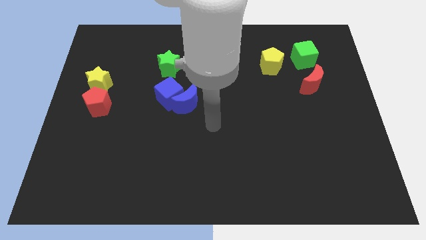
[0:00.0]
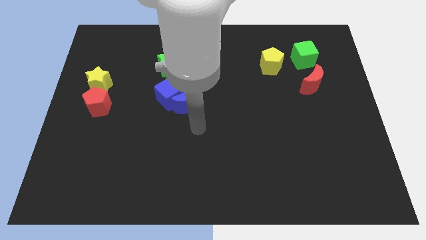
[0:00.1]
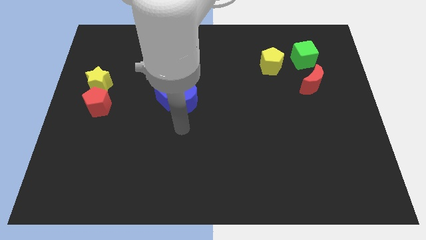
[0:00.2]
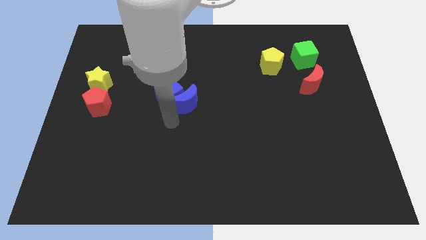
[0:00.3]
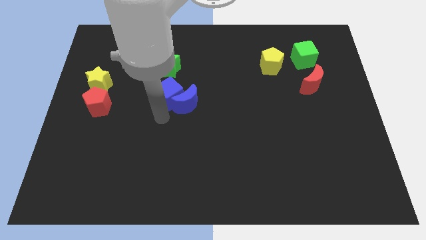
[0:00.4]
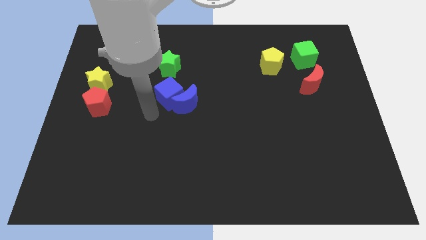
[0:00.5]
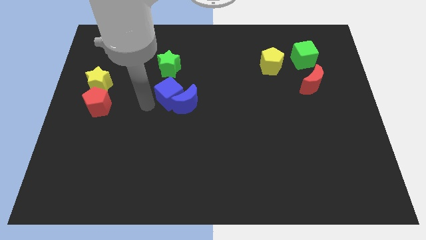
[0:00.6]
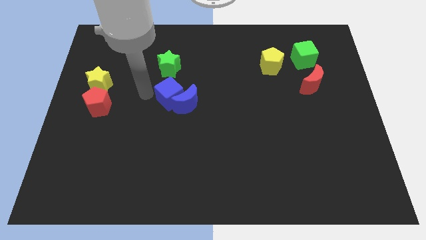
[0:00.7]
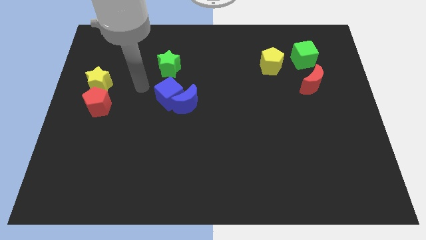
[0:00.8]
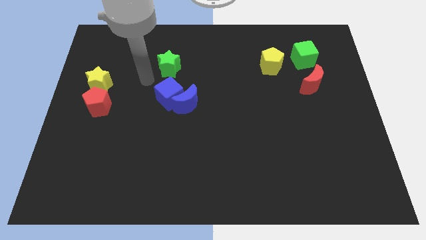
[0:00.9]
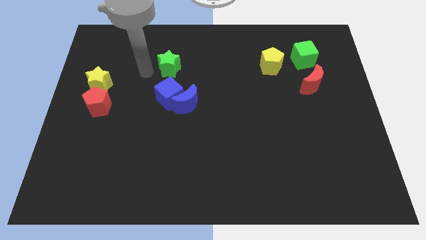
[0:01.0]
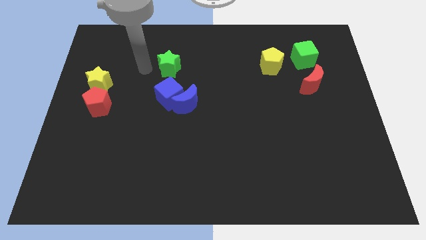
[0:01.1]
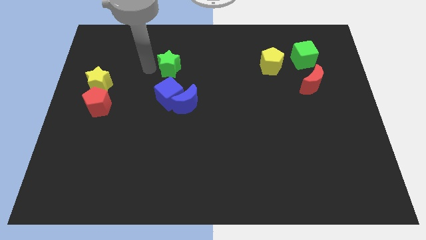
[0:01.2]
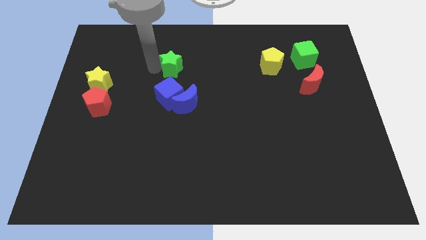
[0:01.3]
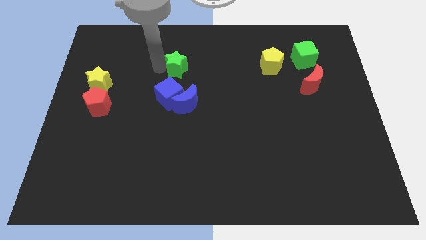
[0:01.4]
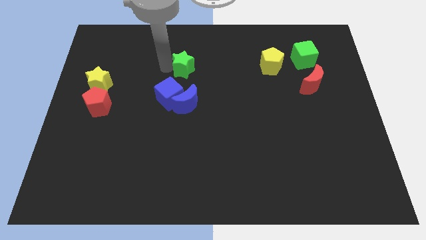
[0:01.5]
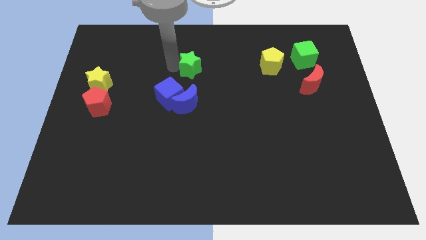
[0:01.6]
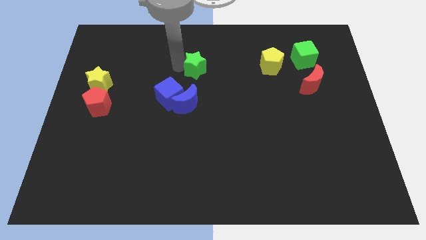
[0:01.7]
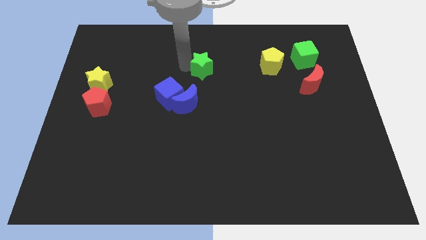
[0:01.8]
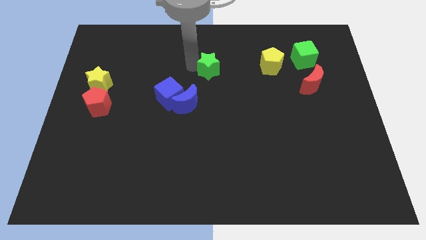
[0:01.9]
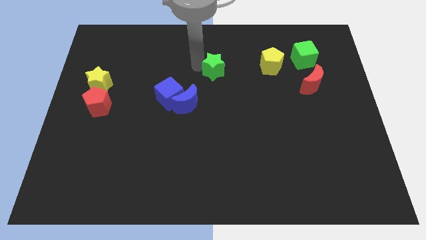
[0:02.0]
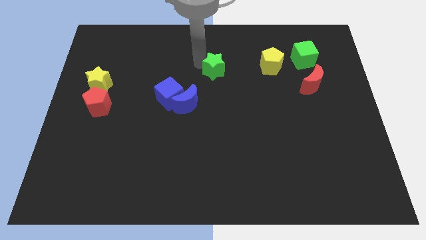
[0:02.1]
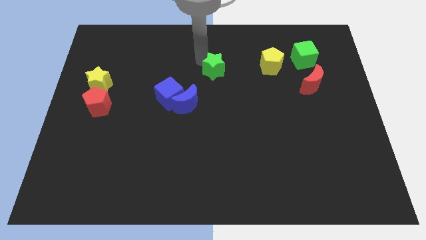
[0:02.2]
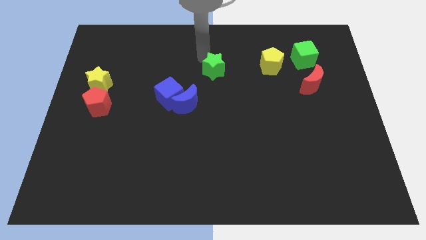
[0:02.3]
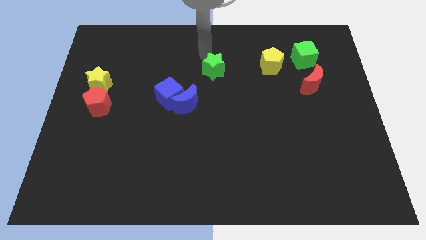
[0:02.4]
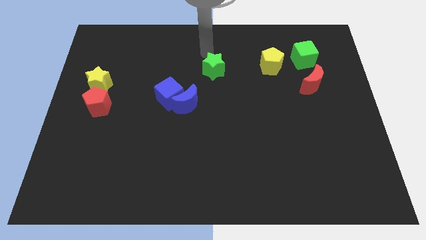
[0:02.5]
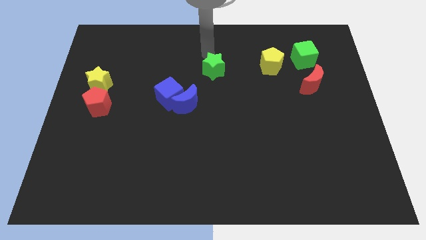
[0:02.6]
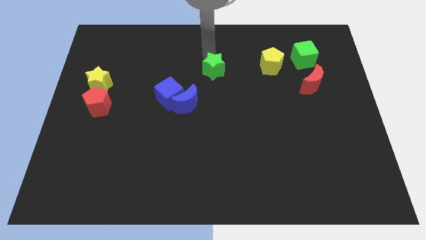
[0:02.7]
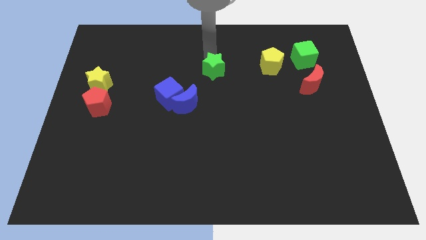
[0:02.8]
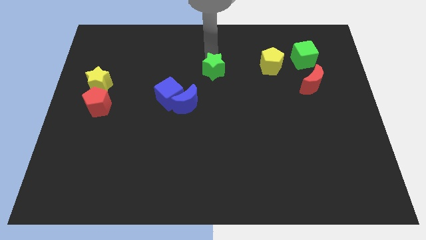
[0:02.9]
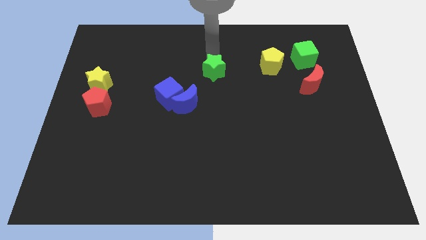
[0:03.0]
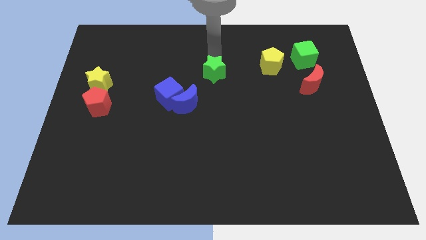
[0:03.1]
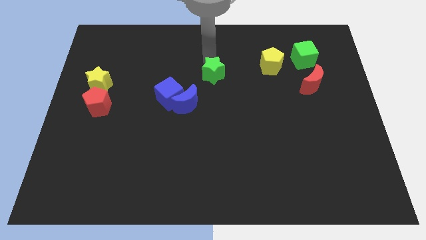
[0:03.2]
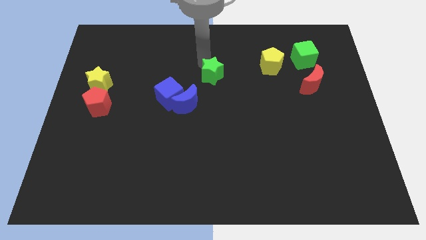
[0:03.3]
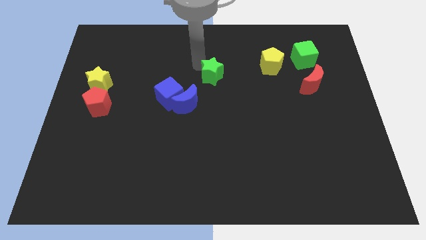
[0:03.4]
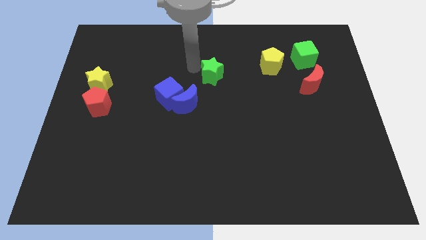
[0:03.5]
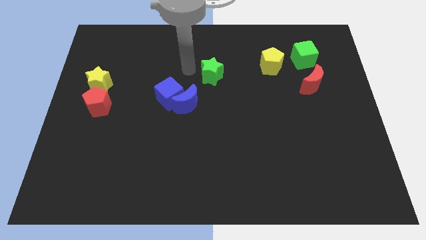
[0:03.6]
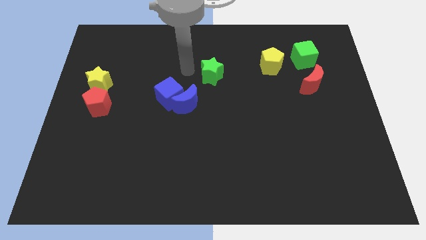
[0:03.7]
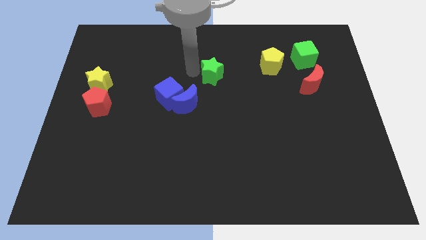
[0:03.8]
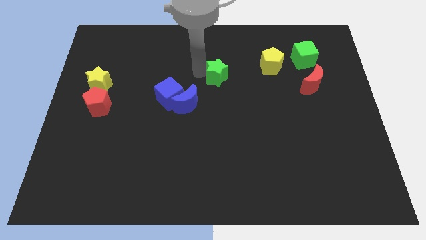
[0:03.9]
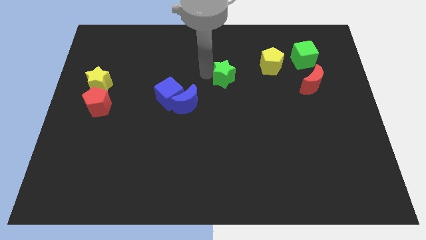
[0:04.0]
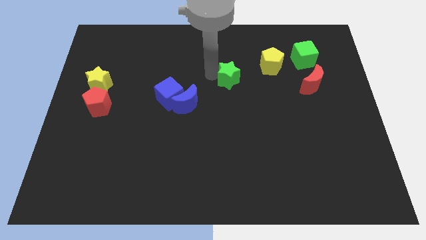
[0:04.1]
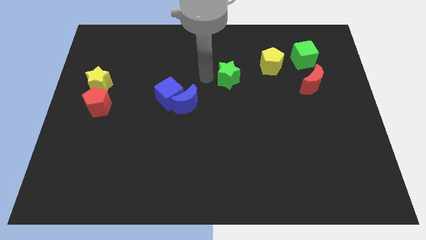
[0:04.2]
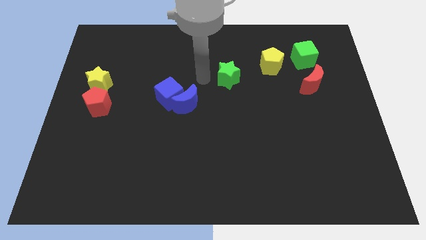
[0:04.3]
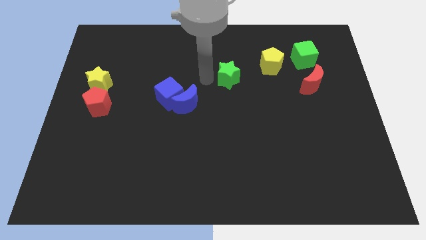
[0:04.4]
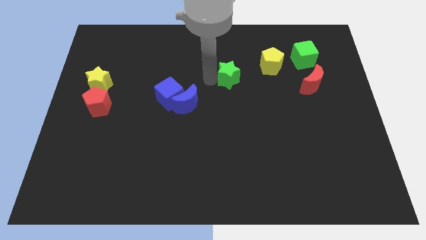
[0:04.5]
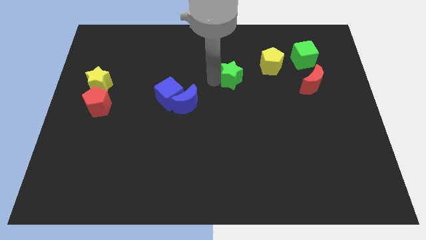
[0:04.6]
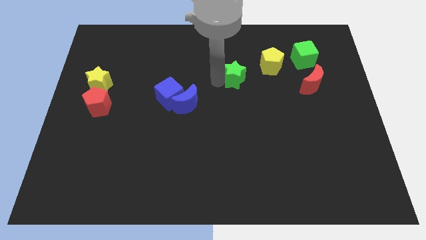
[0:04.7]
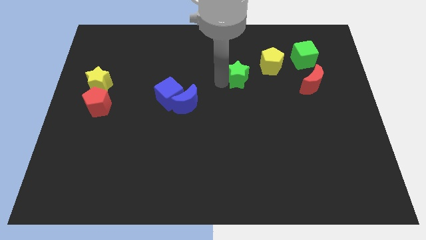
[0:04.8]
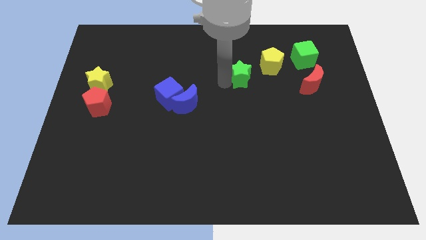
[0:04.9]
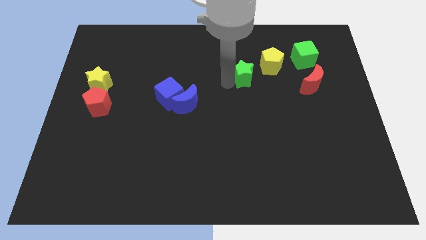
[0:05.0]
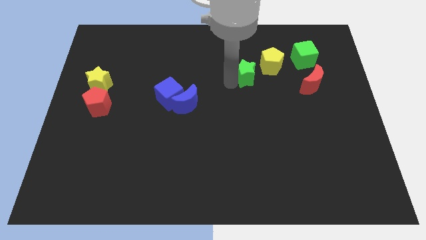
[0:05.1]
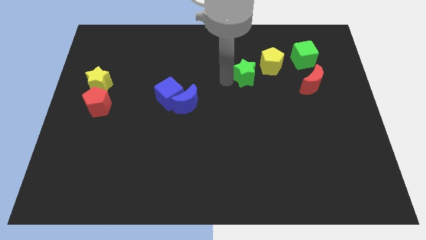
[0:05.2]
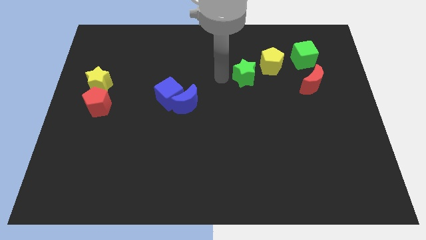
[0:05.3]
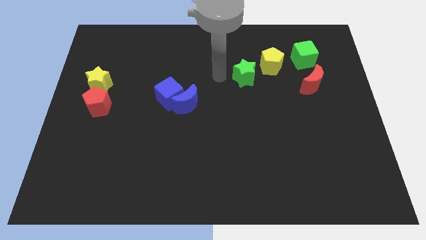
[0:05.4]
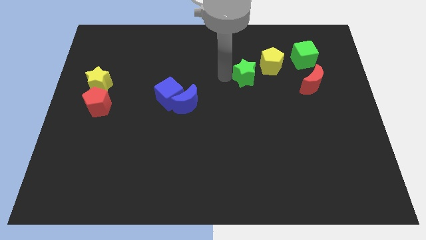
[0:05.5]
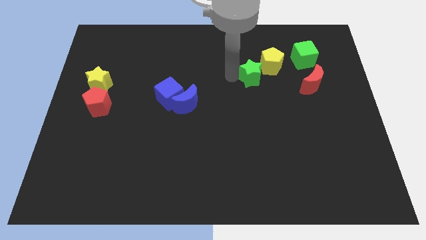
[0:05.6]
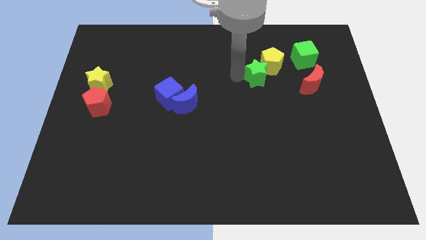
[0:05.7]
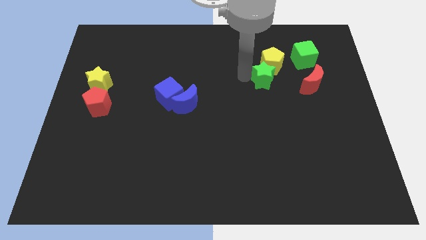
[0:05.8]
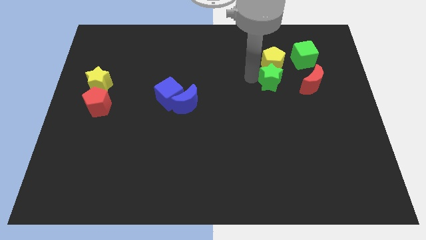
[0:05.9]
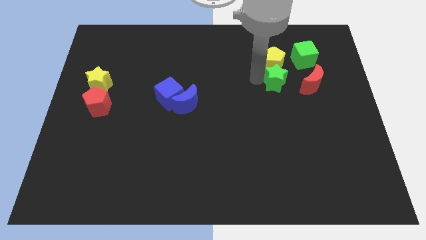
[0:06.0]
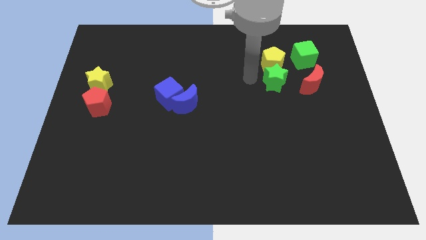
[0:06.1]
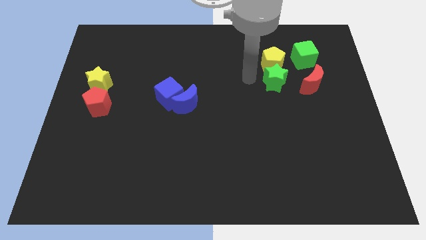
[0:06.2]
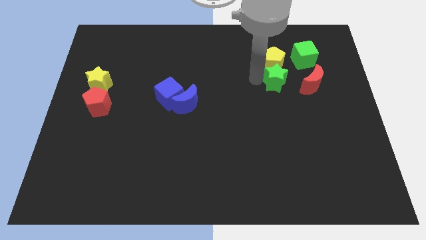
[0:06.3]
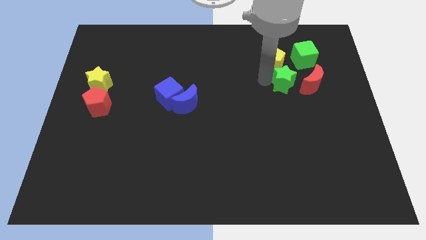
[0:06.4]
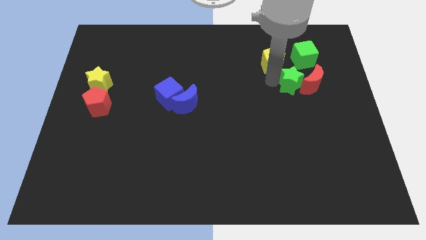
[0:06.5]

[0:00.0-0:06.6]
push the green star next to the red moon

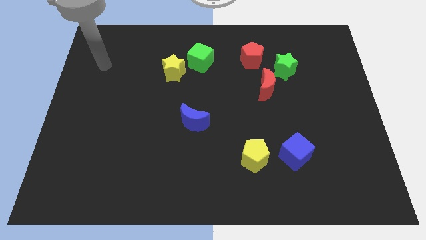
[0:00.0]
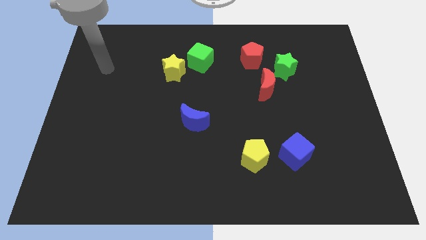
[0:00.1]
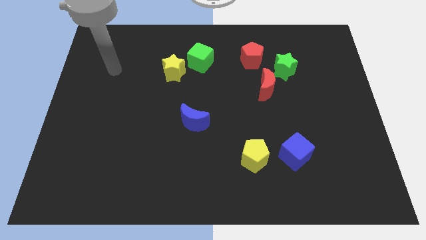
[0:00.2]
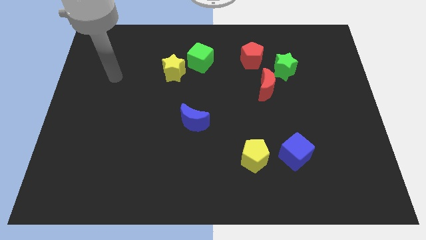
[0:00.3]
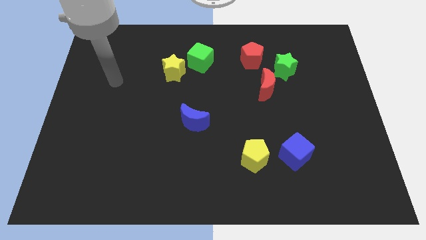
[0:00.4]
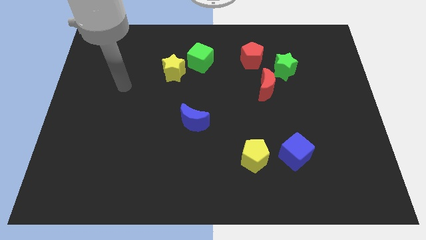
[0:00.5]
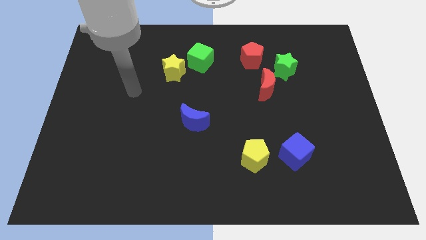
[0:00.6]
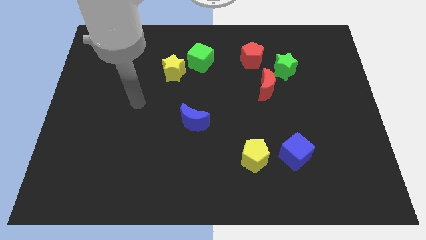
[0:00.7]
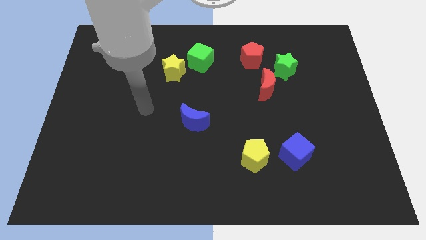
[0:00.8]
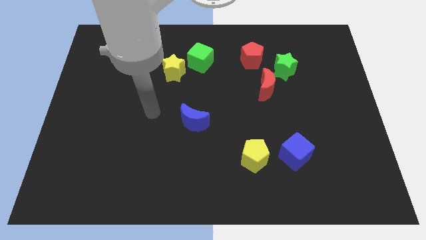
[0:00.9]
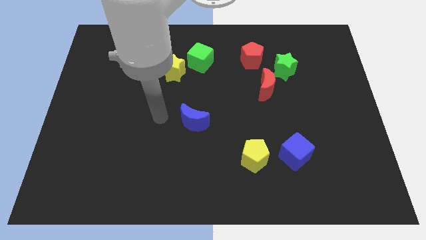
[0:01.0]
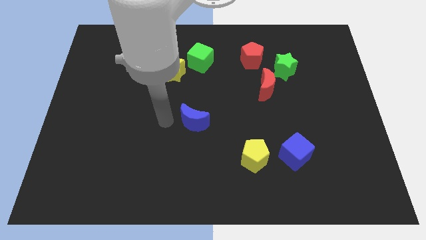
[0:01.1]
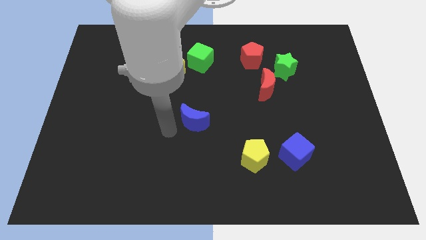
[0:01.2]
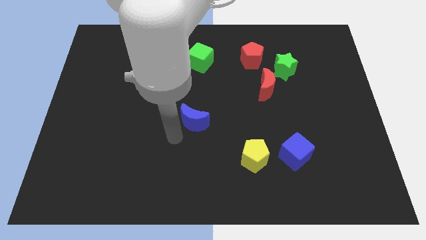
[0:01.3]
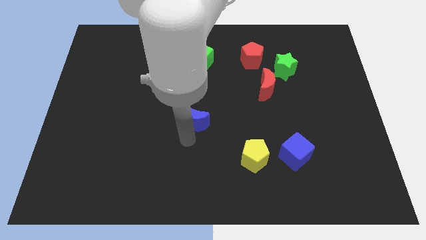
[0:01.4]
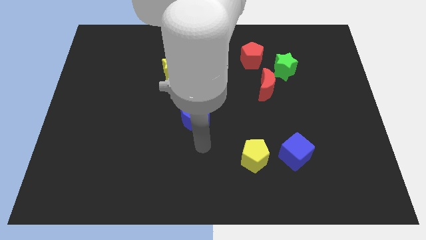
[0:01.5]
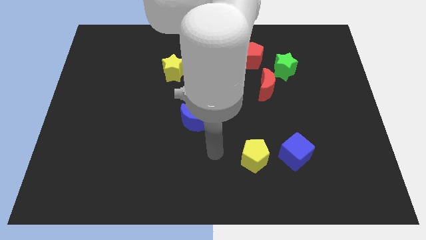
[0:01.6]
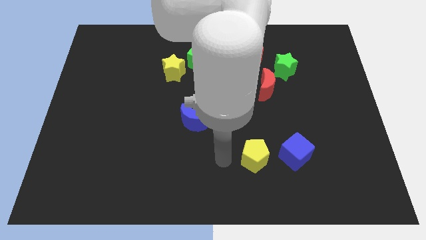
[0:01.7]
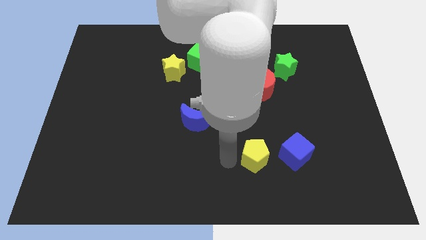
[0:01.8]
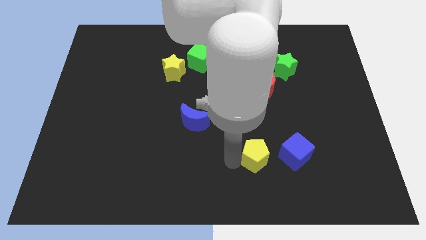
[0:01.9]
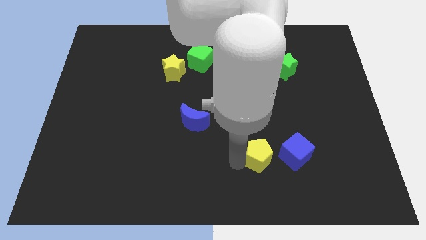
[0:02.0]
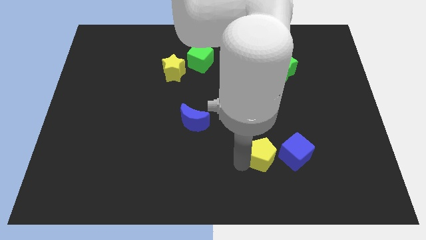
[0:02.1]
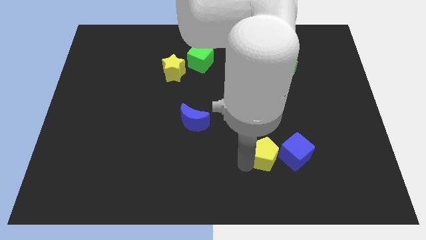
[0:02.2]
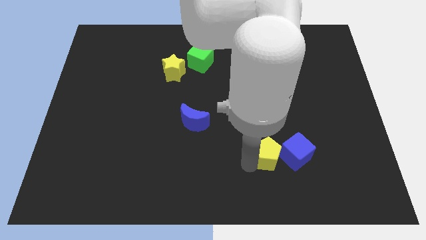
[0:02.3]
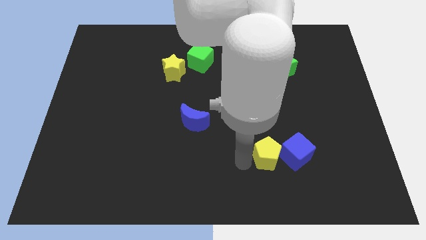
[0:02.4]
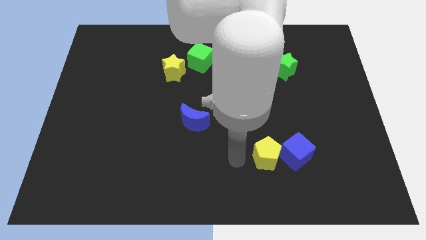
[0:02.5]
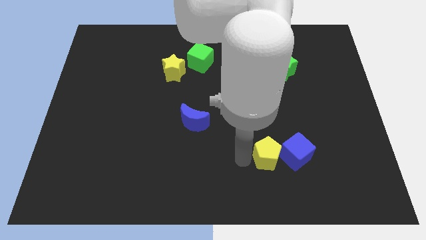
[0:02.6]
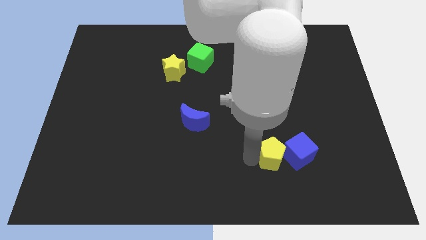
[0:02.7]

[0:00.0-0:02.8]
put the yellow pentagon close to the blue cube
